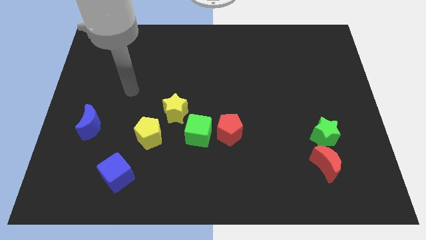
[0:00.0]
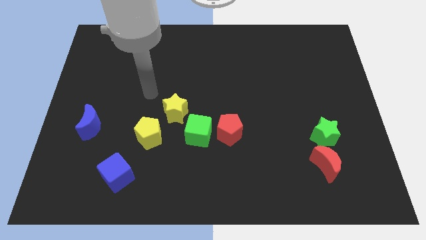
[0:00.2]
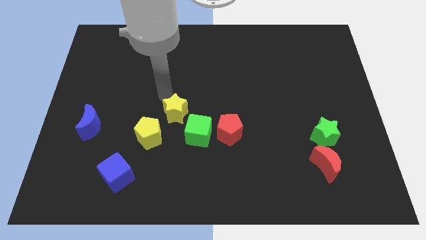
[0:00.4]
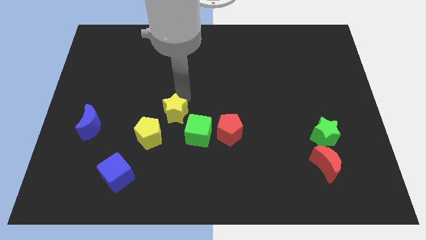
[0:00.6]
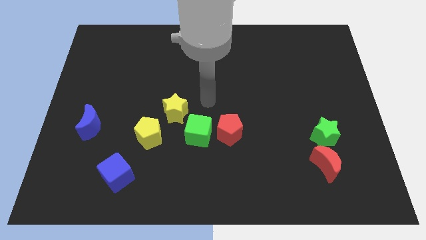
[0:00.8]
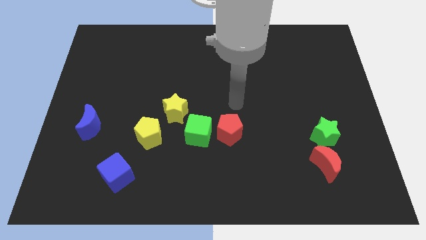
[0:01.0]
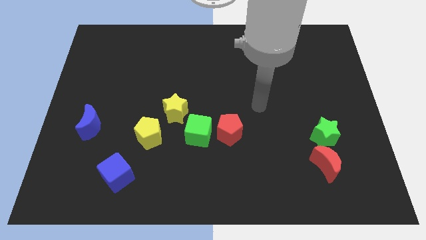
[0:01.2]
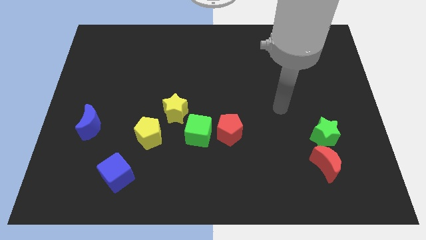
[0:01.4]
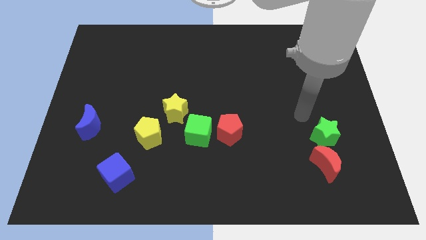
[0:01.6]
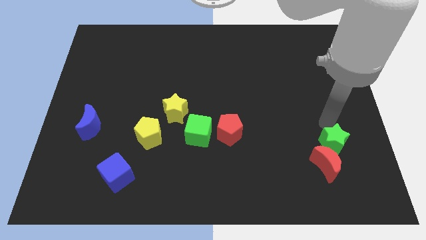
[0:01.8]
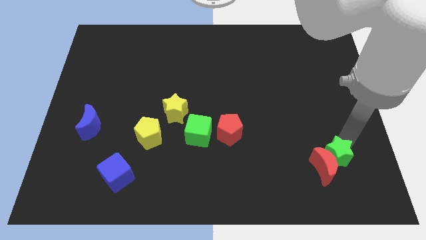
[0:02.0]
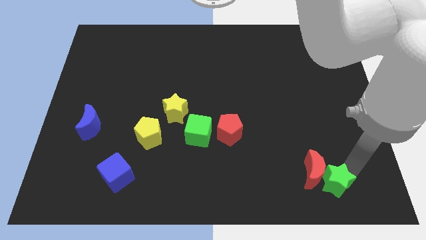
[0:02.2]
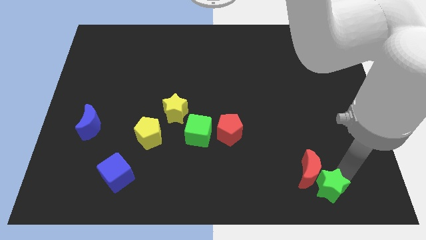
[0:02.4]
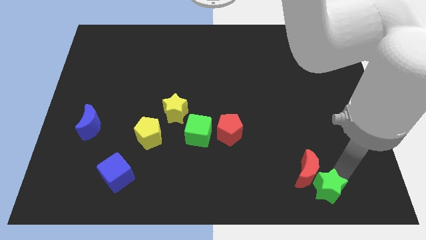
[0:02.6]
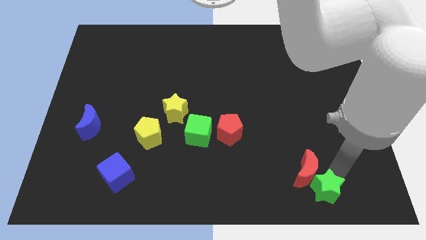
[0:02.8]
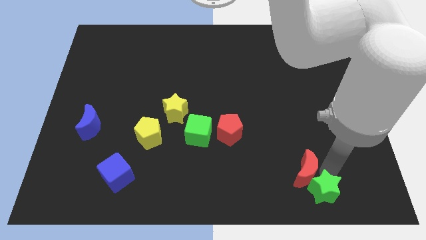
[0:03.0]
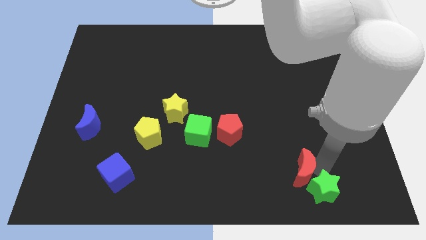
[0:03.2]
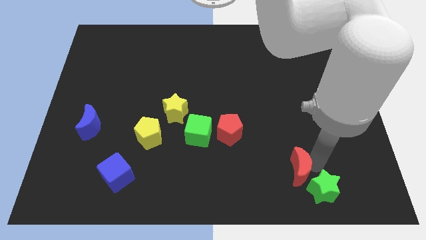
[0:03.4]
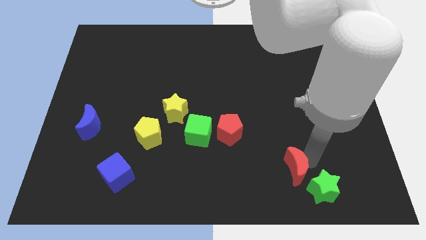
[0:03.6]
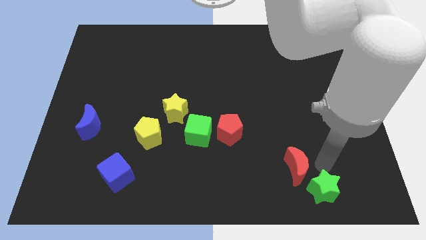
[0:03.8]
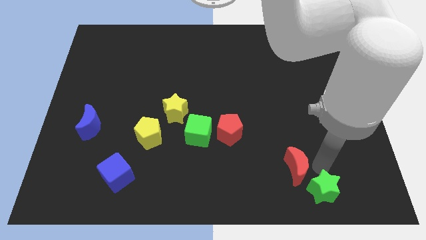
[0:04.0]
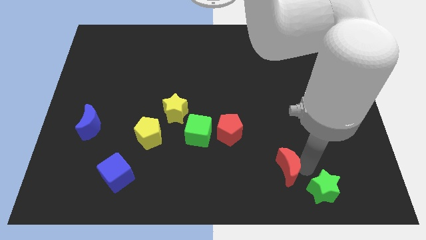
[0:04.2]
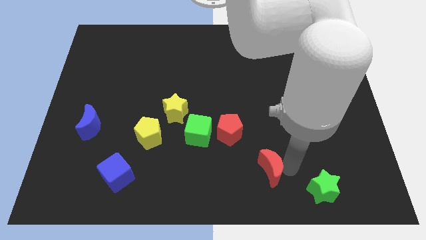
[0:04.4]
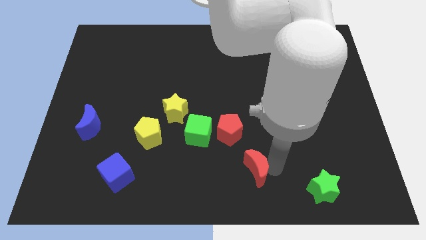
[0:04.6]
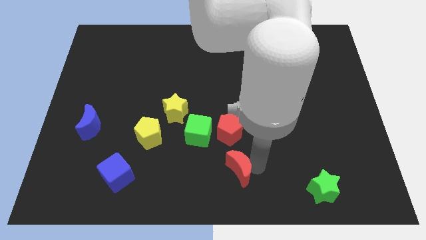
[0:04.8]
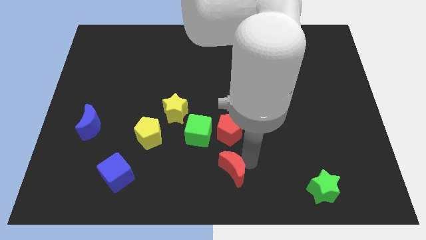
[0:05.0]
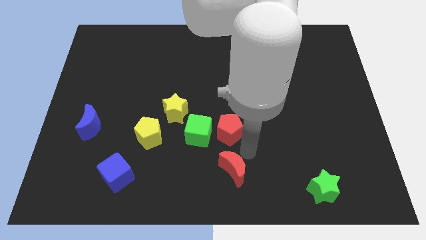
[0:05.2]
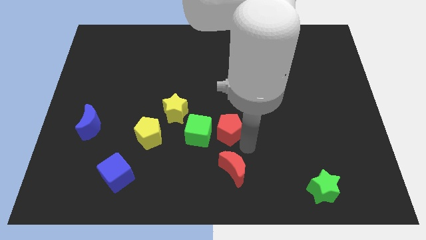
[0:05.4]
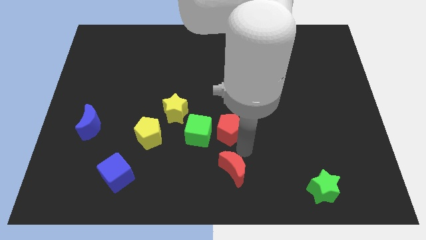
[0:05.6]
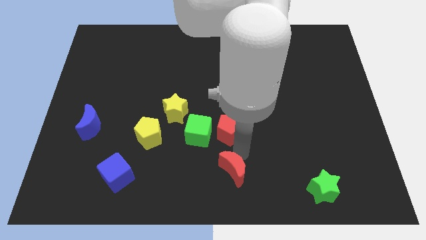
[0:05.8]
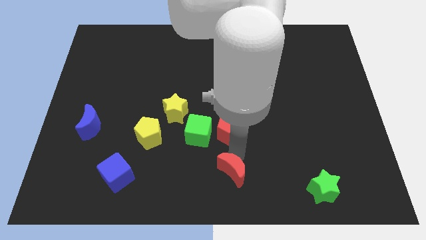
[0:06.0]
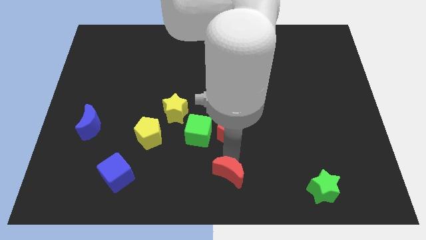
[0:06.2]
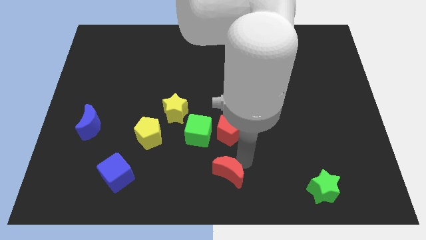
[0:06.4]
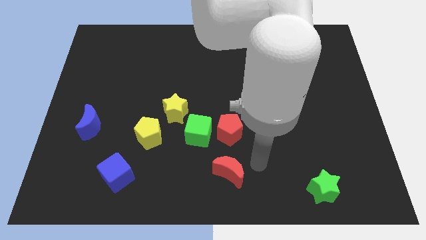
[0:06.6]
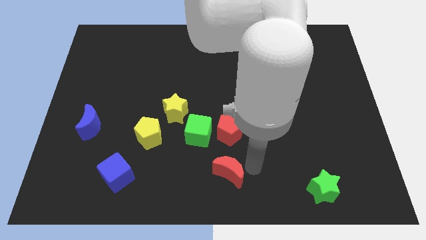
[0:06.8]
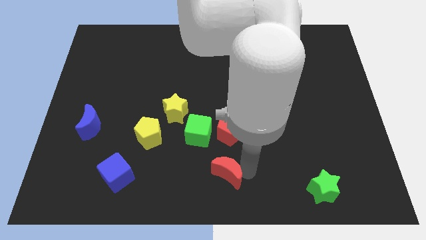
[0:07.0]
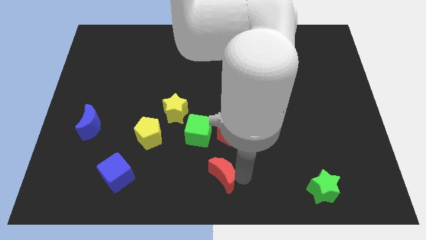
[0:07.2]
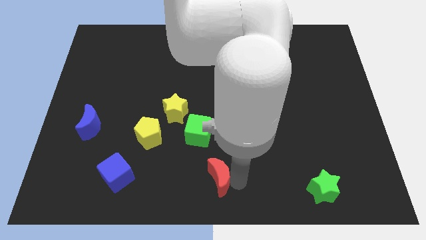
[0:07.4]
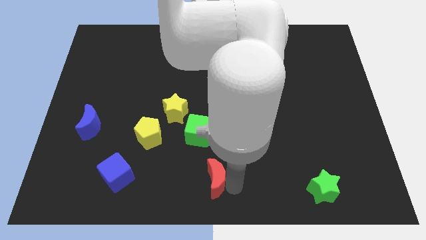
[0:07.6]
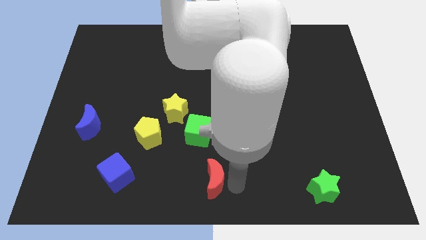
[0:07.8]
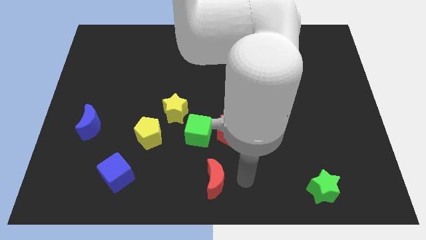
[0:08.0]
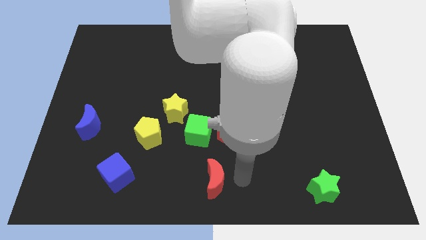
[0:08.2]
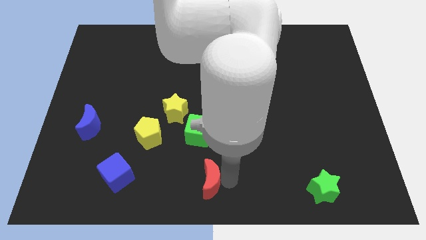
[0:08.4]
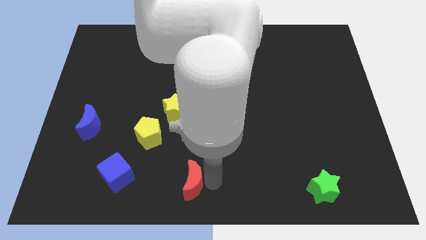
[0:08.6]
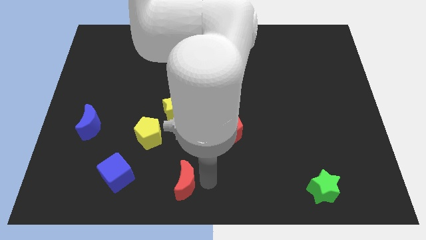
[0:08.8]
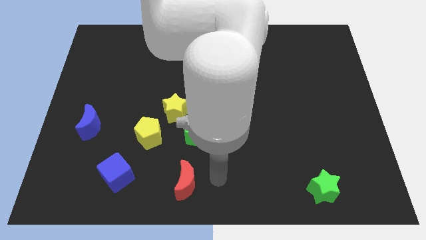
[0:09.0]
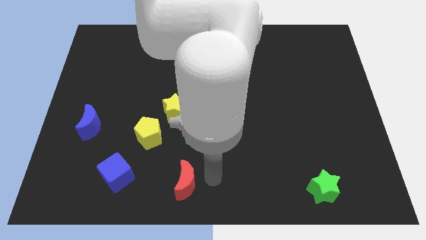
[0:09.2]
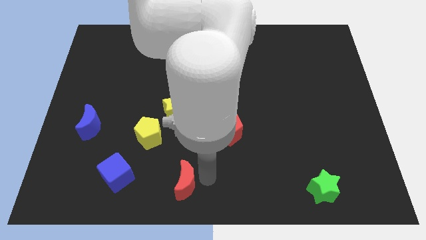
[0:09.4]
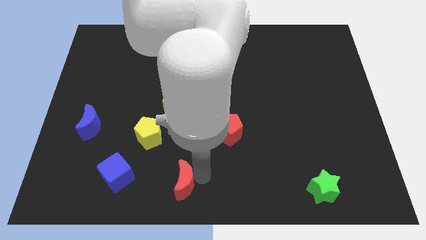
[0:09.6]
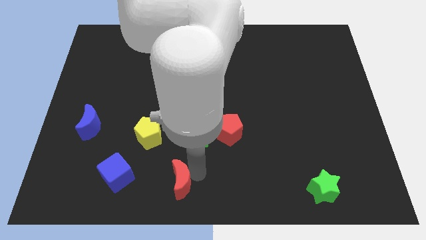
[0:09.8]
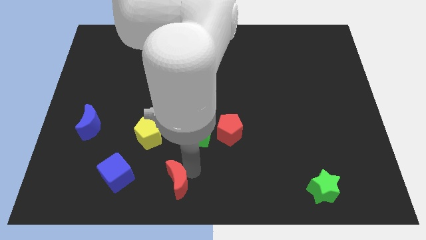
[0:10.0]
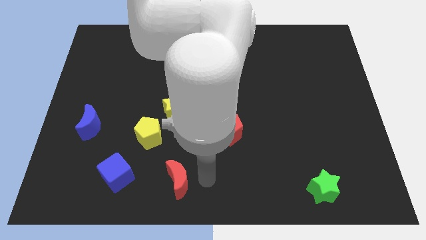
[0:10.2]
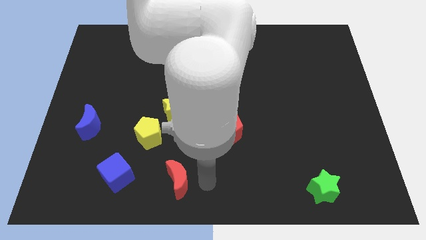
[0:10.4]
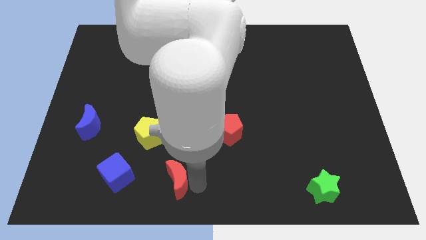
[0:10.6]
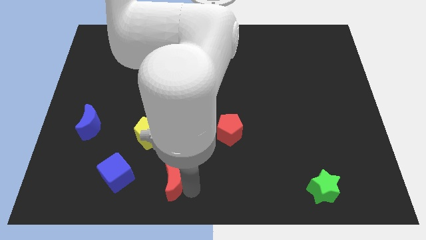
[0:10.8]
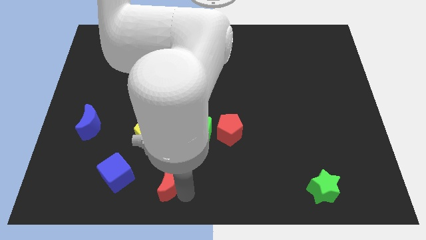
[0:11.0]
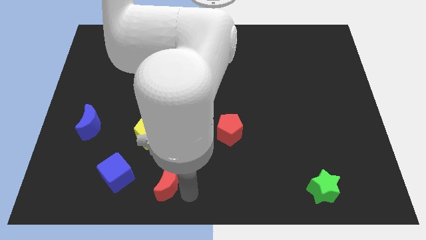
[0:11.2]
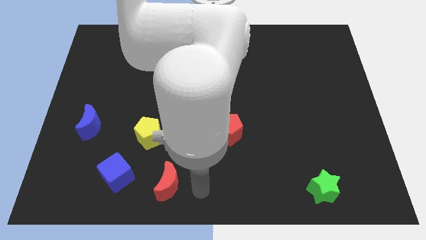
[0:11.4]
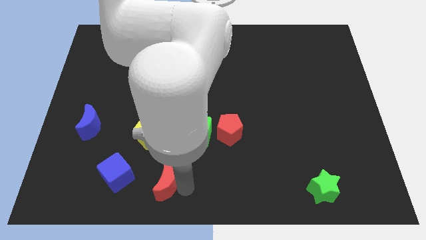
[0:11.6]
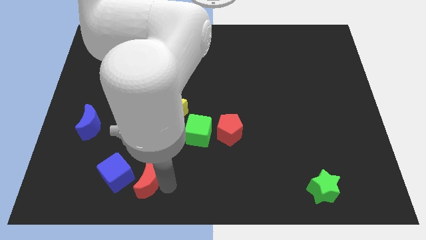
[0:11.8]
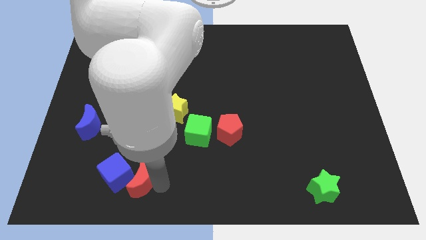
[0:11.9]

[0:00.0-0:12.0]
move the red moon close to the blue cube

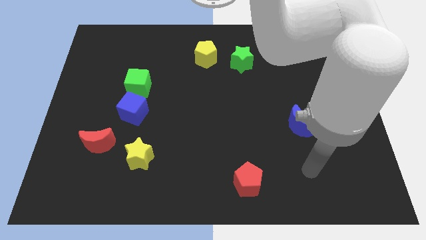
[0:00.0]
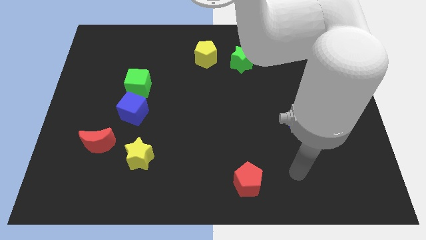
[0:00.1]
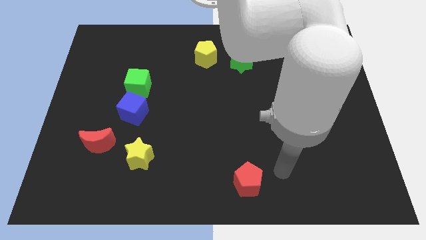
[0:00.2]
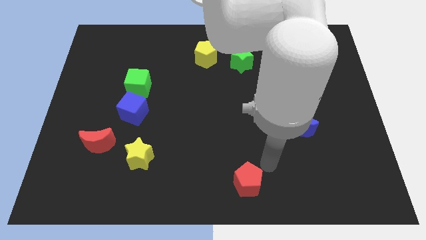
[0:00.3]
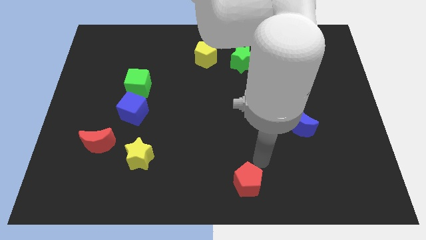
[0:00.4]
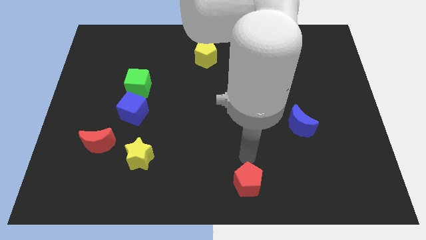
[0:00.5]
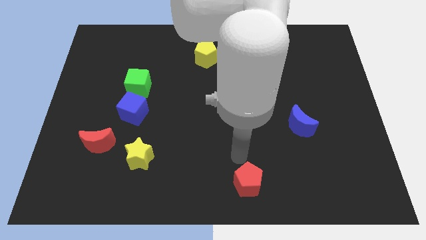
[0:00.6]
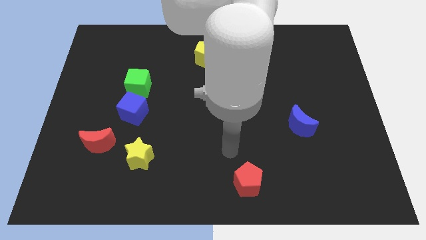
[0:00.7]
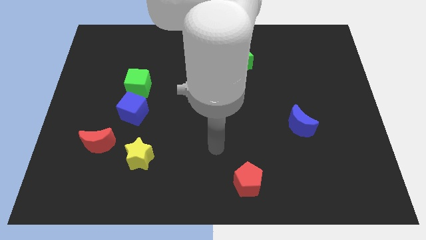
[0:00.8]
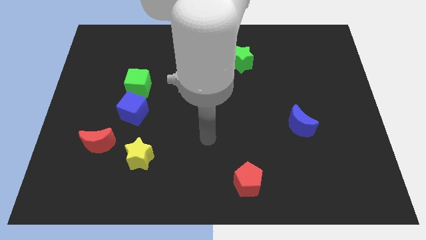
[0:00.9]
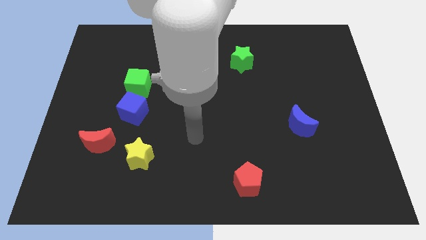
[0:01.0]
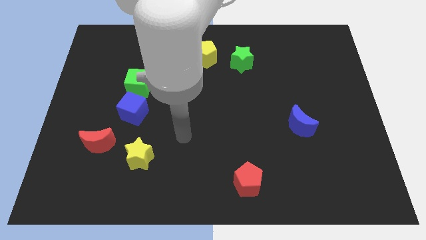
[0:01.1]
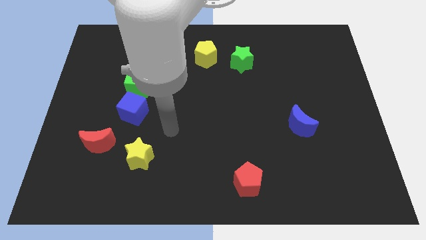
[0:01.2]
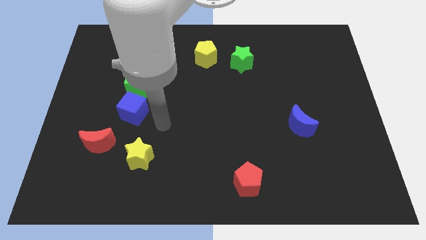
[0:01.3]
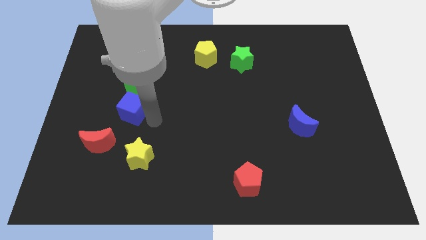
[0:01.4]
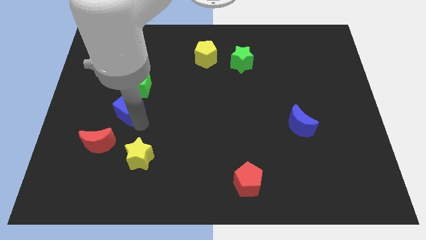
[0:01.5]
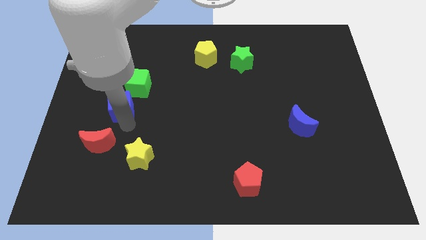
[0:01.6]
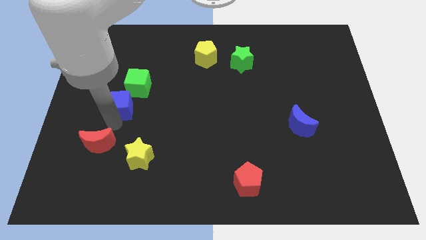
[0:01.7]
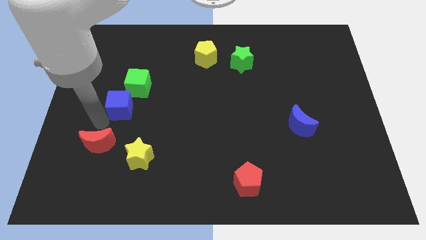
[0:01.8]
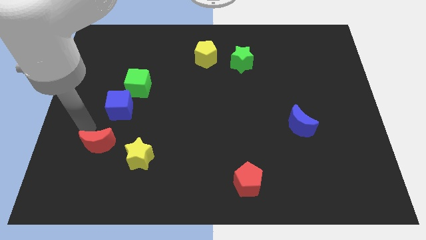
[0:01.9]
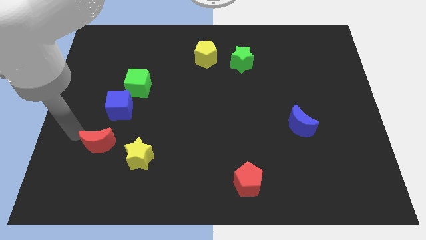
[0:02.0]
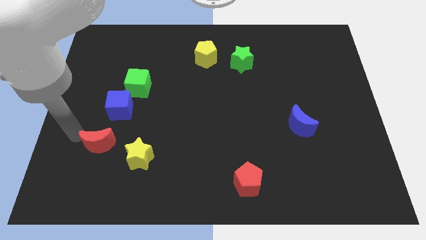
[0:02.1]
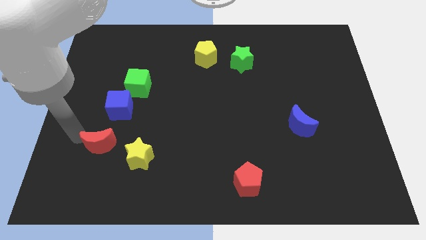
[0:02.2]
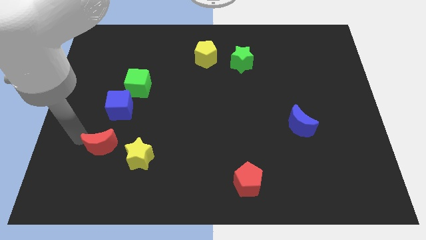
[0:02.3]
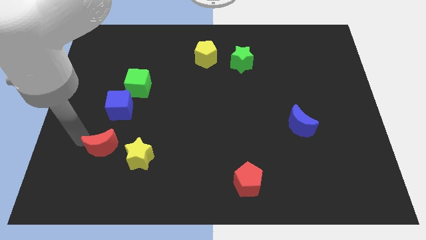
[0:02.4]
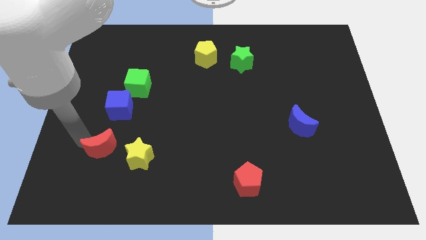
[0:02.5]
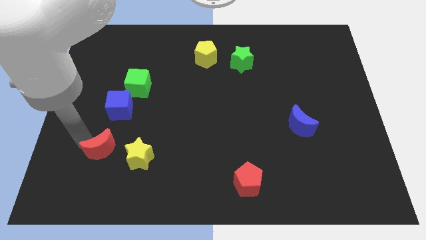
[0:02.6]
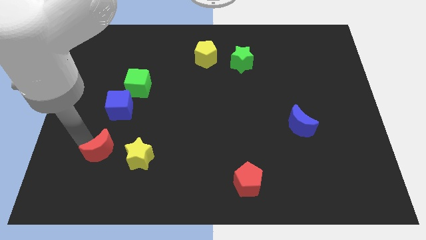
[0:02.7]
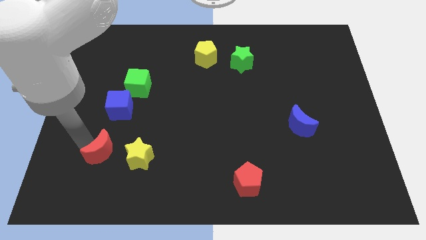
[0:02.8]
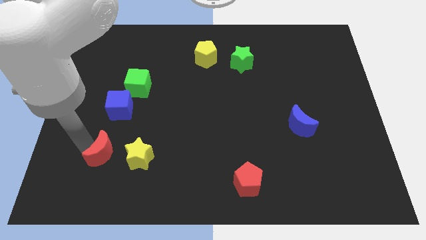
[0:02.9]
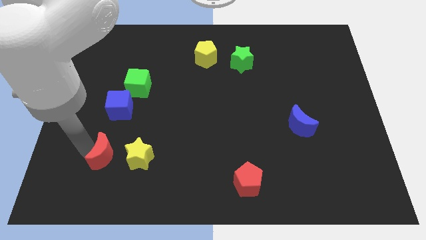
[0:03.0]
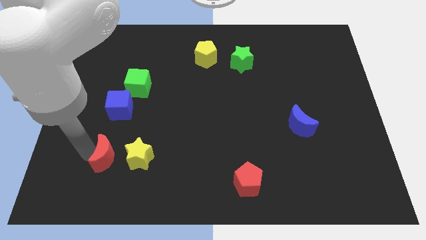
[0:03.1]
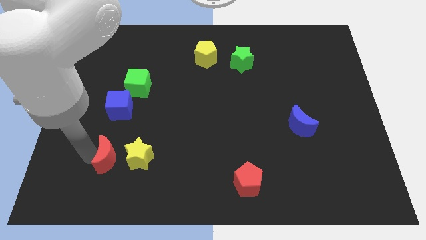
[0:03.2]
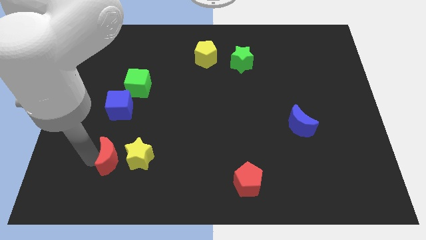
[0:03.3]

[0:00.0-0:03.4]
push the red moon next to the yellow star
